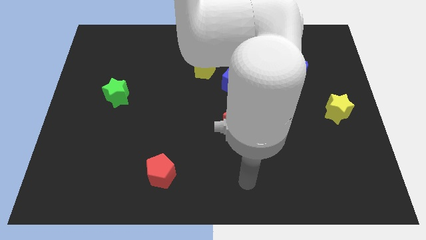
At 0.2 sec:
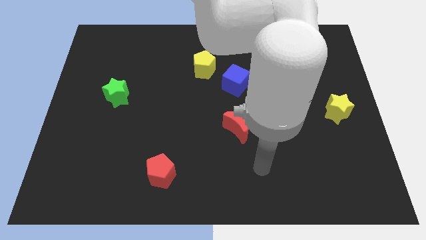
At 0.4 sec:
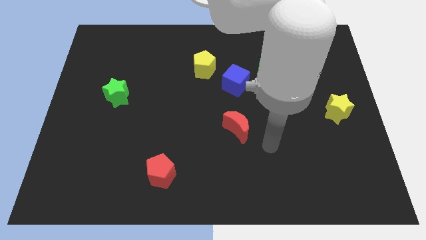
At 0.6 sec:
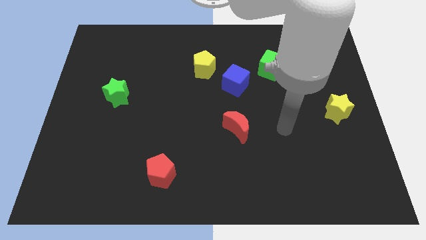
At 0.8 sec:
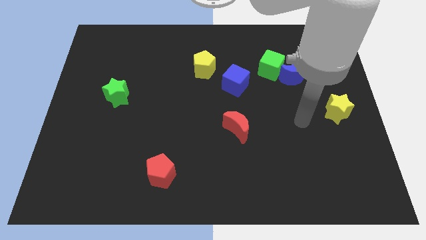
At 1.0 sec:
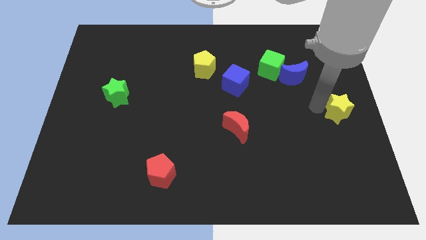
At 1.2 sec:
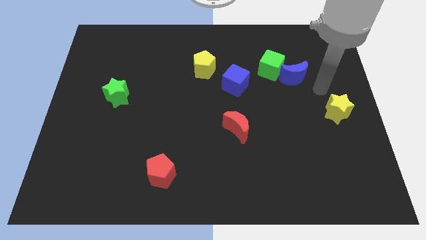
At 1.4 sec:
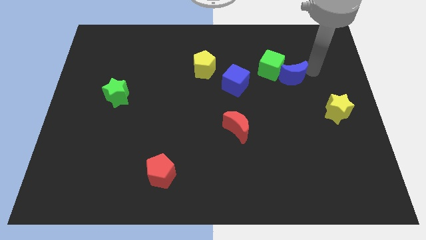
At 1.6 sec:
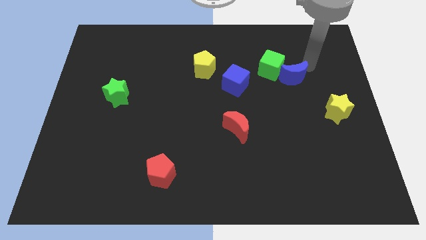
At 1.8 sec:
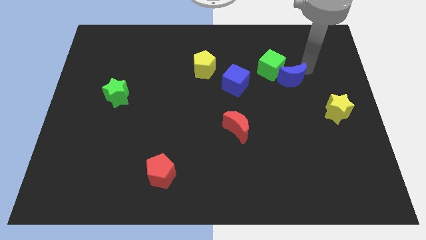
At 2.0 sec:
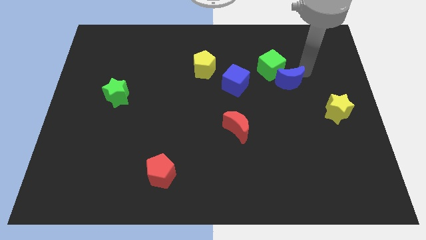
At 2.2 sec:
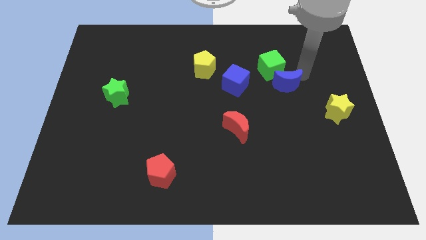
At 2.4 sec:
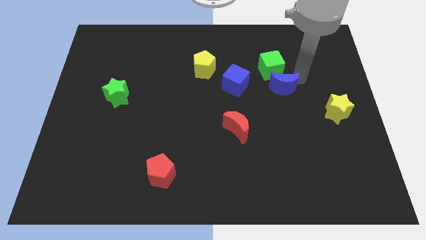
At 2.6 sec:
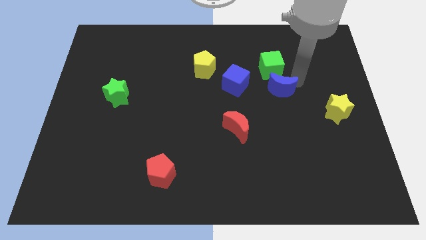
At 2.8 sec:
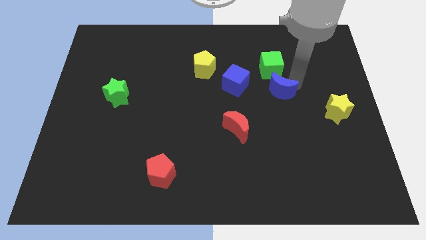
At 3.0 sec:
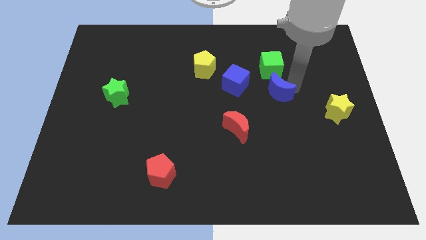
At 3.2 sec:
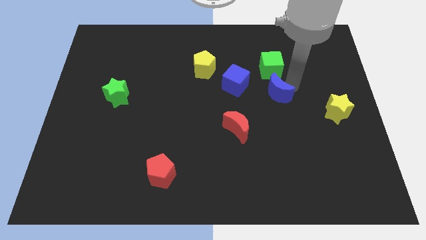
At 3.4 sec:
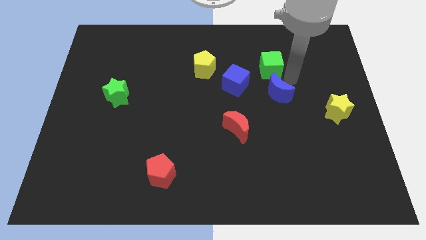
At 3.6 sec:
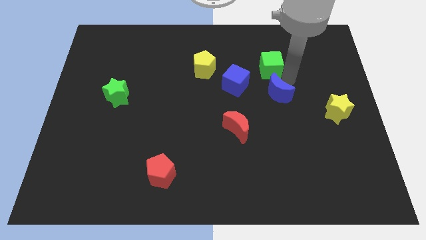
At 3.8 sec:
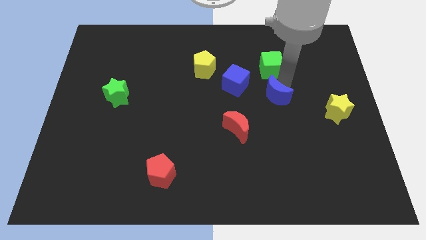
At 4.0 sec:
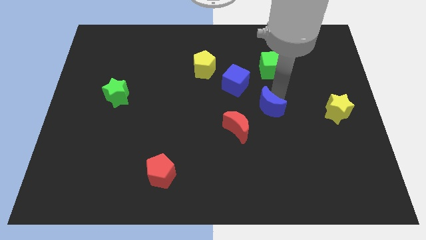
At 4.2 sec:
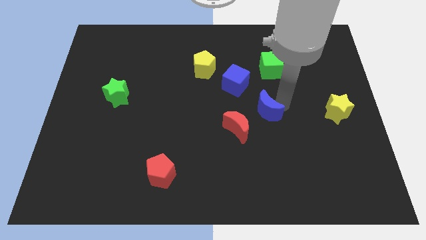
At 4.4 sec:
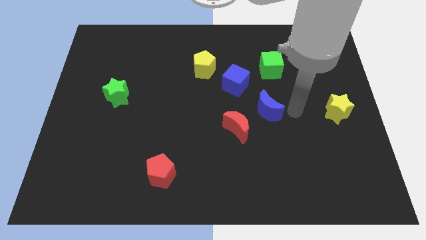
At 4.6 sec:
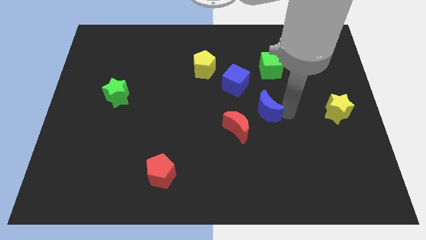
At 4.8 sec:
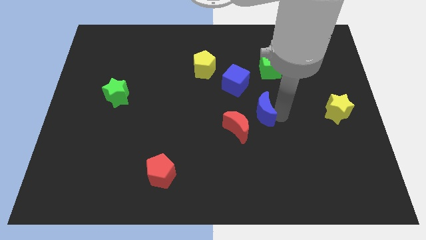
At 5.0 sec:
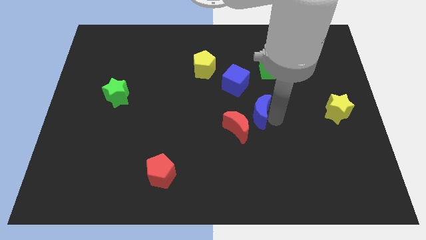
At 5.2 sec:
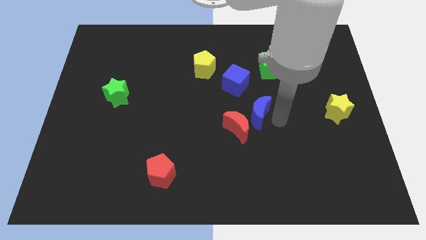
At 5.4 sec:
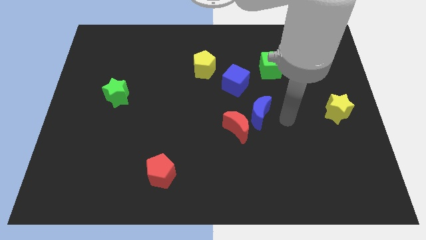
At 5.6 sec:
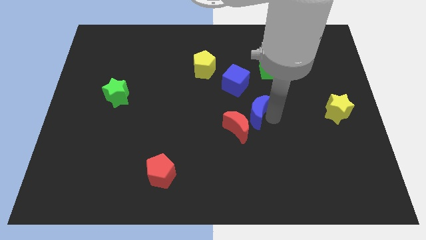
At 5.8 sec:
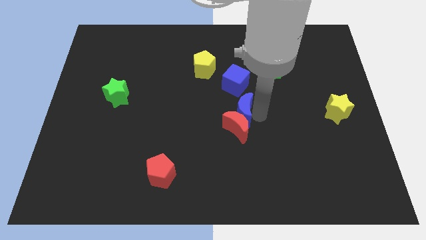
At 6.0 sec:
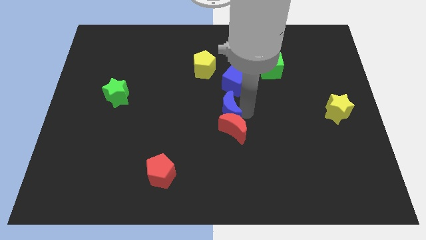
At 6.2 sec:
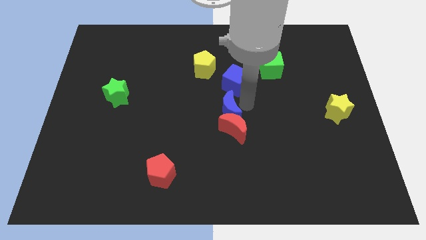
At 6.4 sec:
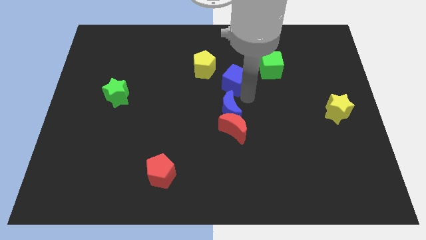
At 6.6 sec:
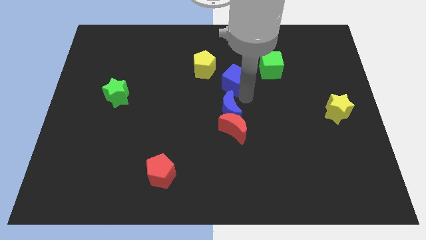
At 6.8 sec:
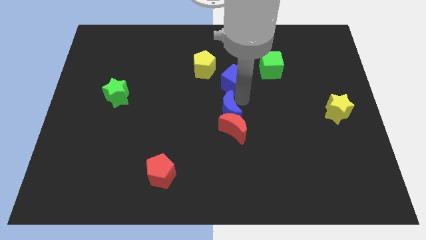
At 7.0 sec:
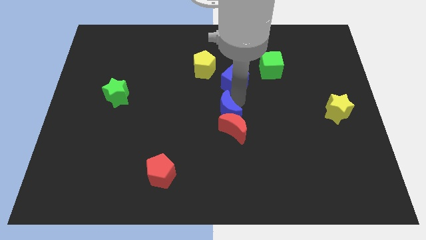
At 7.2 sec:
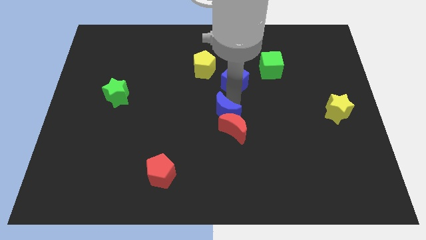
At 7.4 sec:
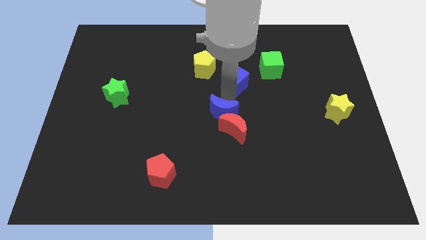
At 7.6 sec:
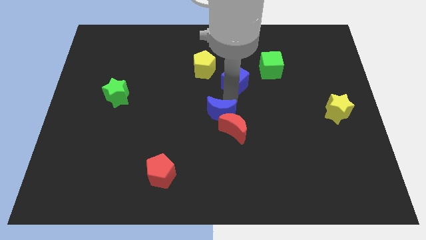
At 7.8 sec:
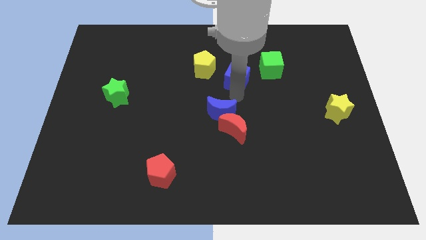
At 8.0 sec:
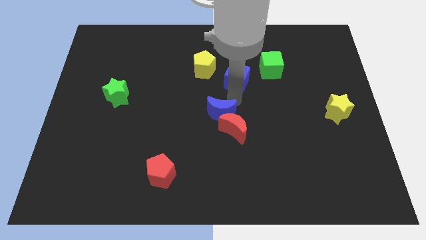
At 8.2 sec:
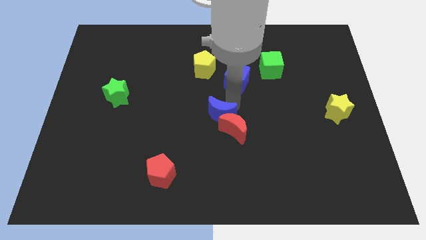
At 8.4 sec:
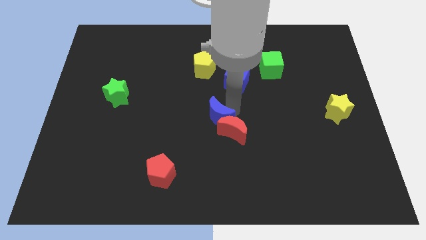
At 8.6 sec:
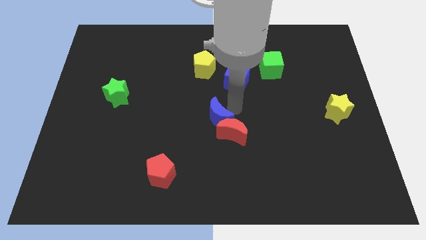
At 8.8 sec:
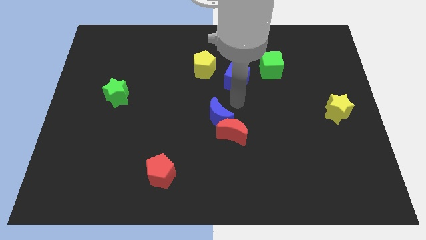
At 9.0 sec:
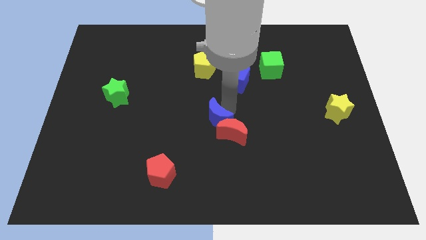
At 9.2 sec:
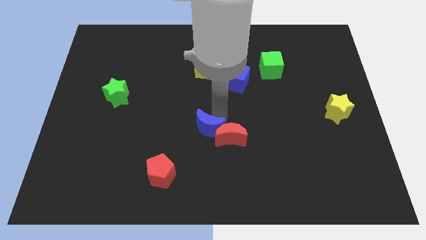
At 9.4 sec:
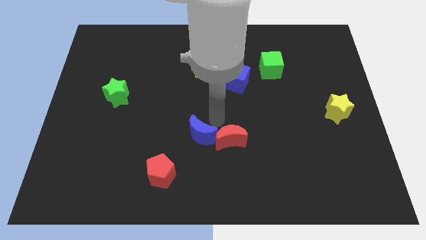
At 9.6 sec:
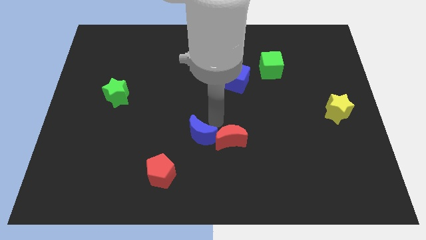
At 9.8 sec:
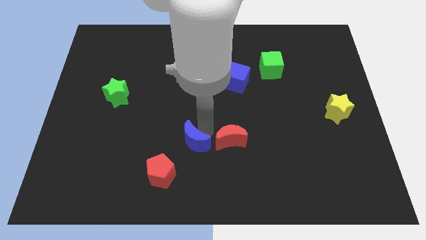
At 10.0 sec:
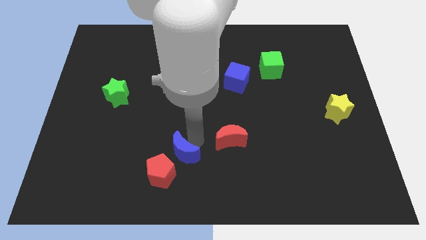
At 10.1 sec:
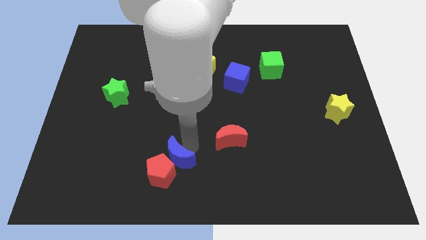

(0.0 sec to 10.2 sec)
slide the blue moon to the red pentagon

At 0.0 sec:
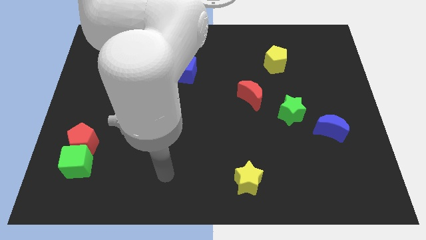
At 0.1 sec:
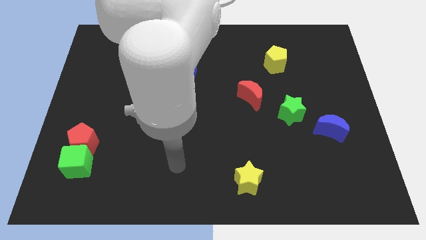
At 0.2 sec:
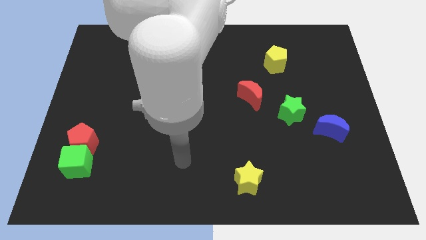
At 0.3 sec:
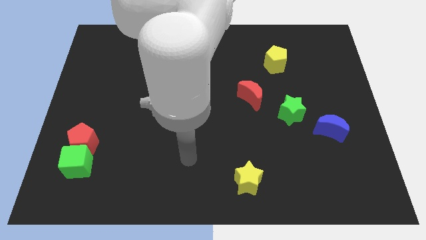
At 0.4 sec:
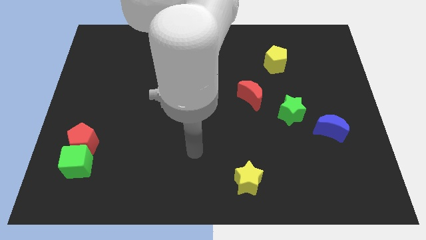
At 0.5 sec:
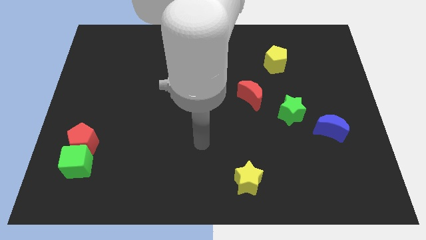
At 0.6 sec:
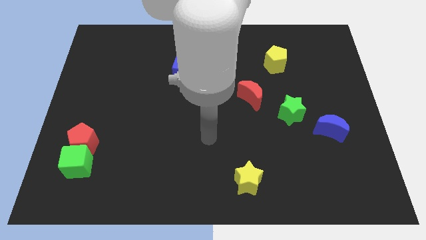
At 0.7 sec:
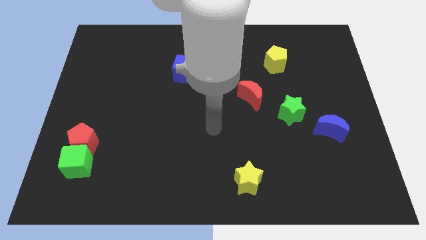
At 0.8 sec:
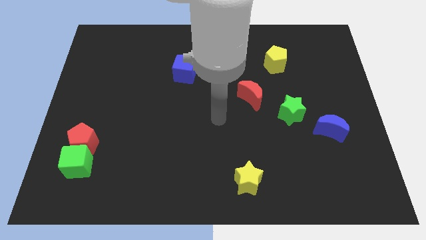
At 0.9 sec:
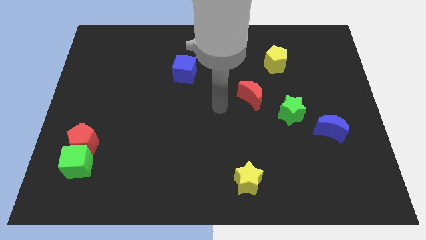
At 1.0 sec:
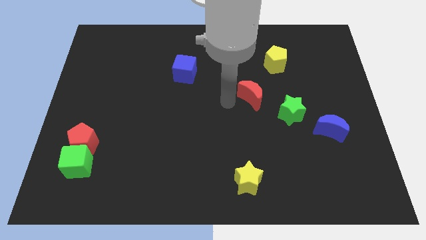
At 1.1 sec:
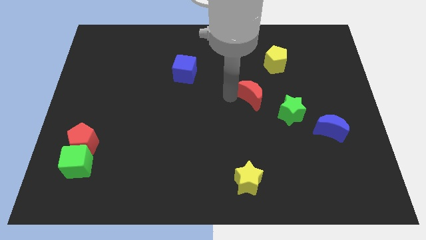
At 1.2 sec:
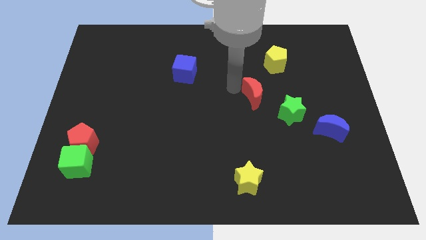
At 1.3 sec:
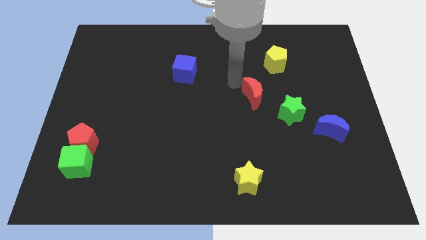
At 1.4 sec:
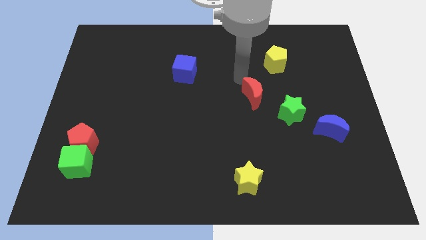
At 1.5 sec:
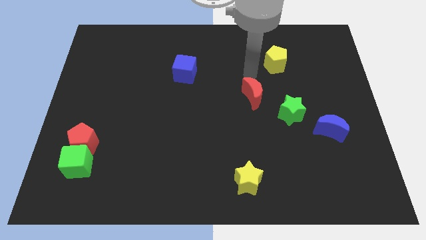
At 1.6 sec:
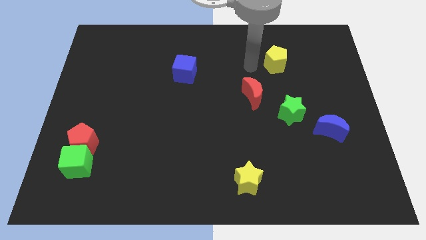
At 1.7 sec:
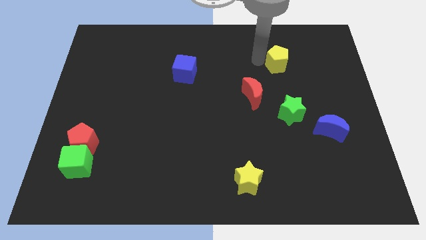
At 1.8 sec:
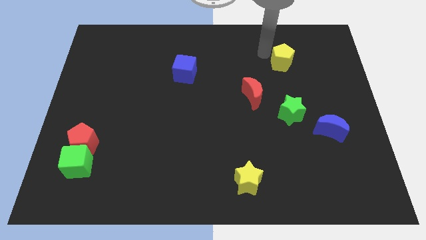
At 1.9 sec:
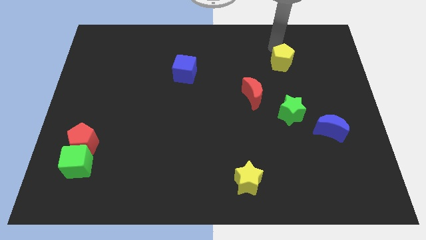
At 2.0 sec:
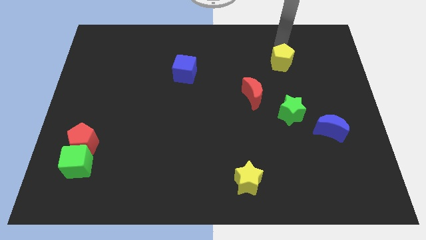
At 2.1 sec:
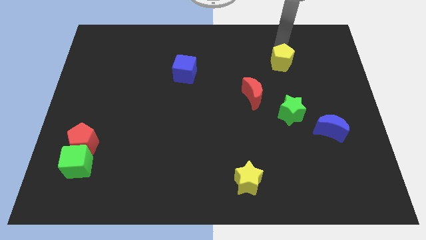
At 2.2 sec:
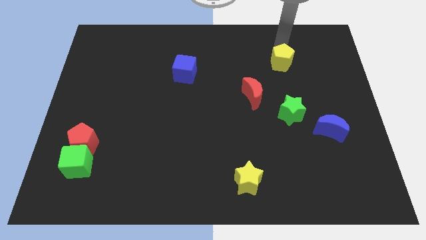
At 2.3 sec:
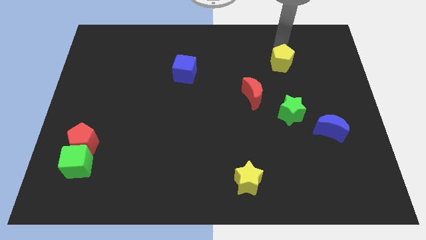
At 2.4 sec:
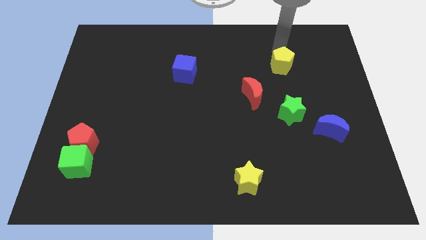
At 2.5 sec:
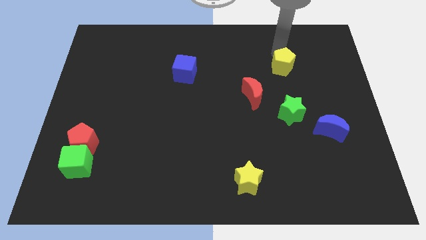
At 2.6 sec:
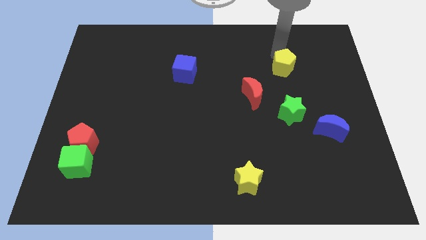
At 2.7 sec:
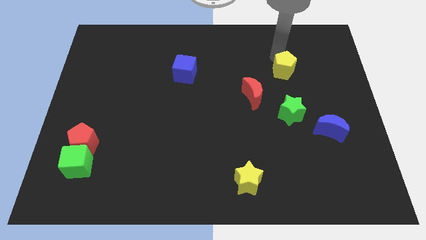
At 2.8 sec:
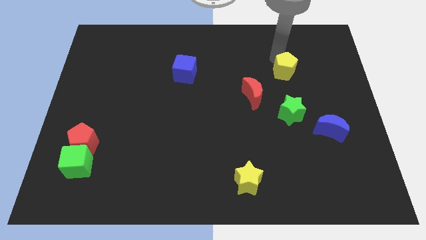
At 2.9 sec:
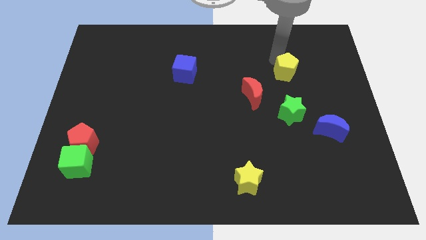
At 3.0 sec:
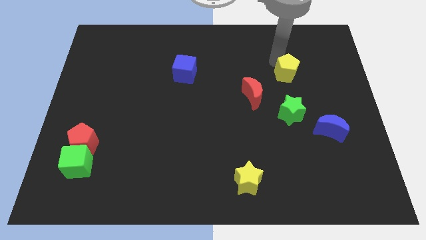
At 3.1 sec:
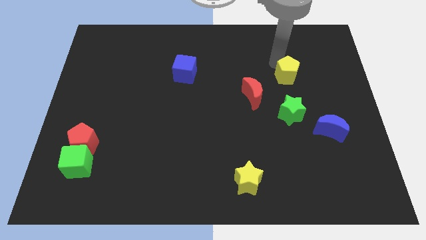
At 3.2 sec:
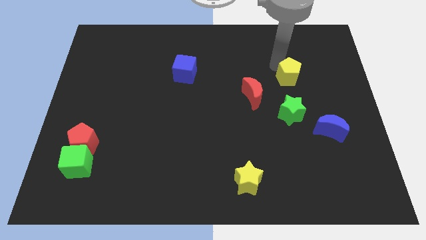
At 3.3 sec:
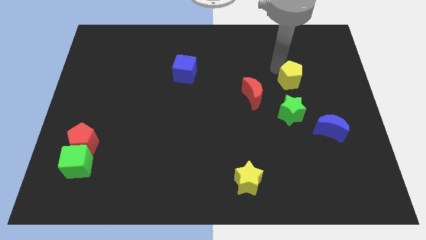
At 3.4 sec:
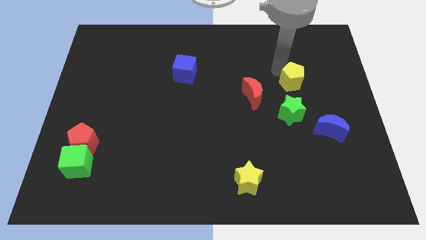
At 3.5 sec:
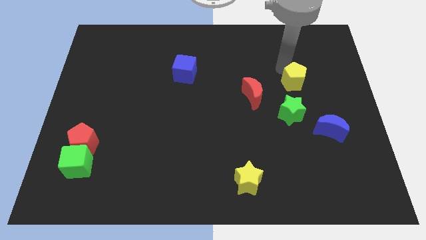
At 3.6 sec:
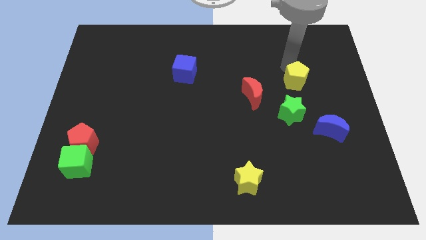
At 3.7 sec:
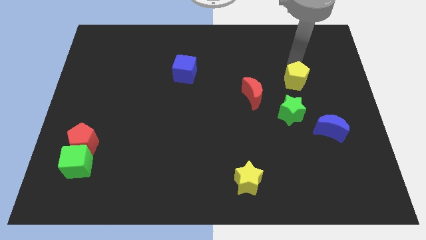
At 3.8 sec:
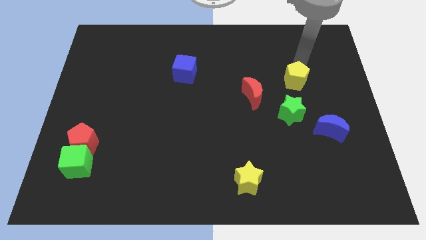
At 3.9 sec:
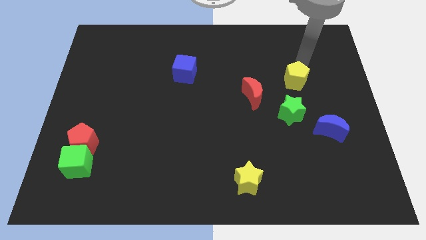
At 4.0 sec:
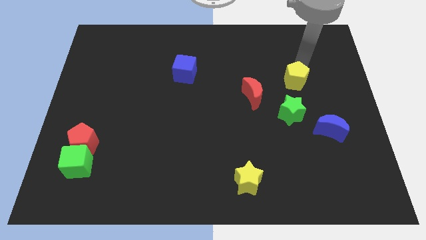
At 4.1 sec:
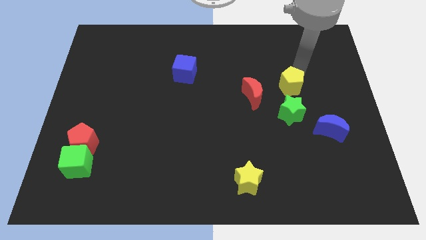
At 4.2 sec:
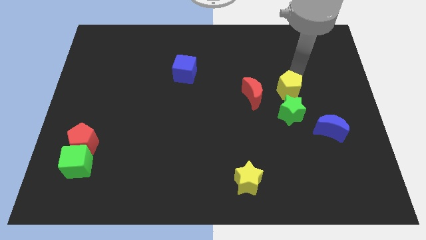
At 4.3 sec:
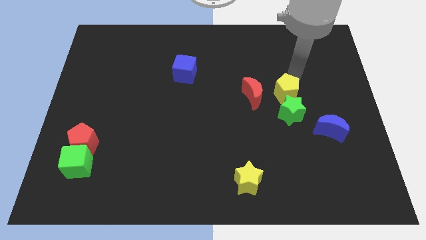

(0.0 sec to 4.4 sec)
put the yellow pentagon next to the green star
